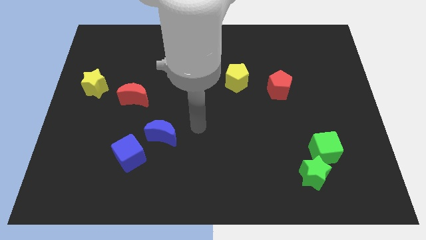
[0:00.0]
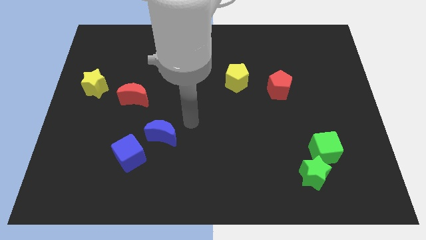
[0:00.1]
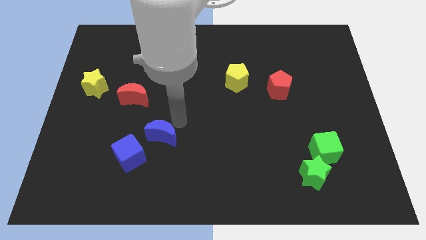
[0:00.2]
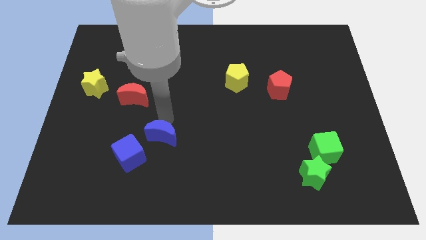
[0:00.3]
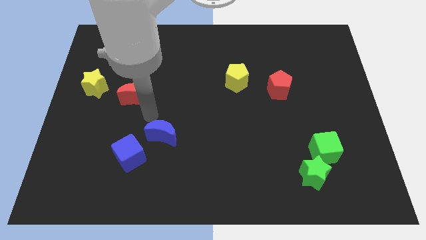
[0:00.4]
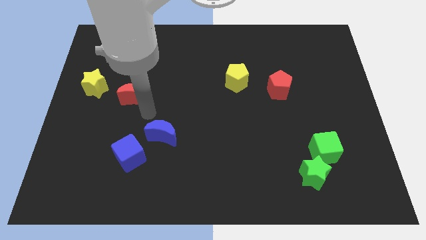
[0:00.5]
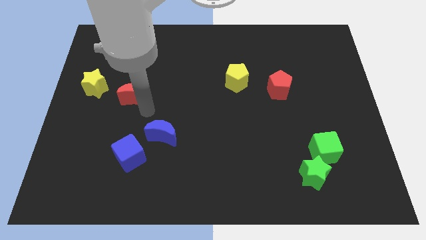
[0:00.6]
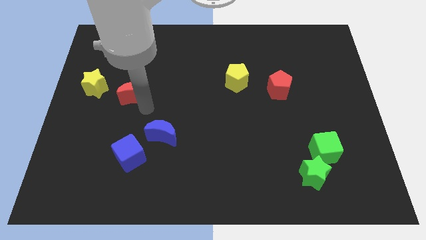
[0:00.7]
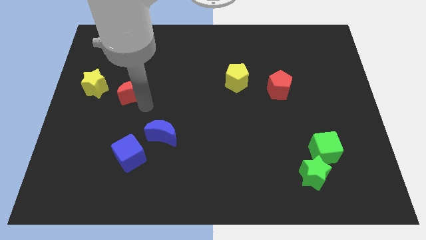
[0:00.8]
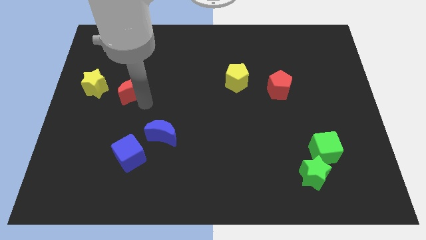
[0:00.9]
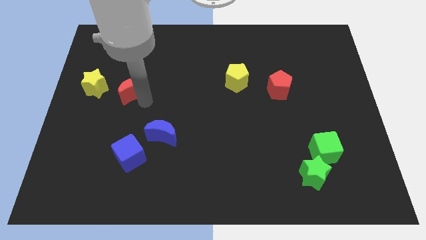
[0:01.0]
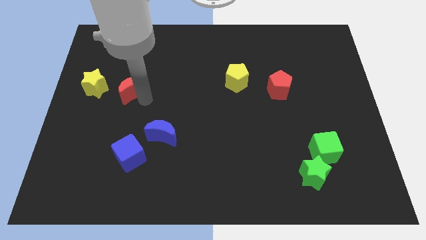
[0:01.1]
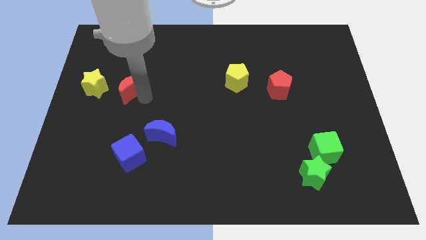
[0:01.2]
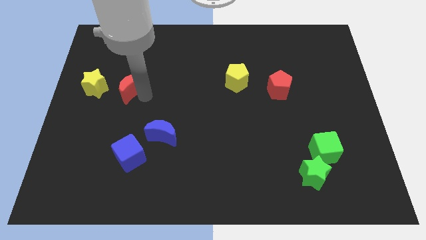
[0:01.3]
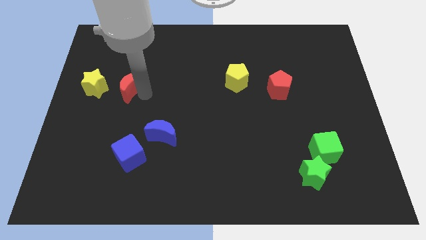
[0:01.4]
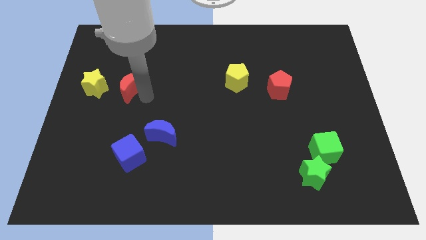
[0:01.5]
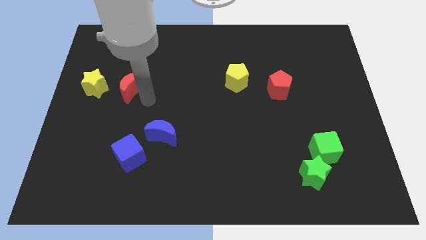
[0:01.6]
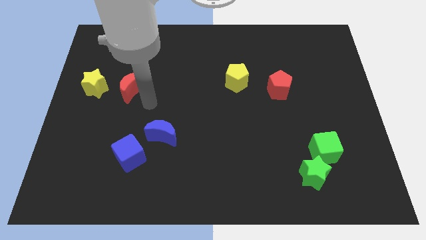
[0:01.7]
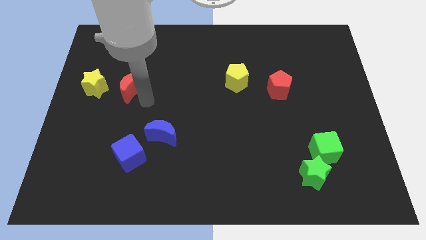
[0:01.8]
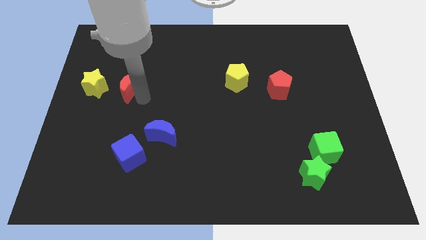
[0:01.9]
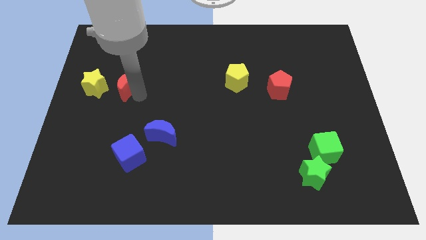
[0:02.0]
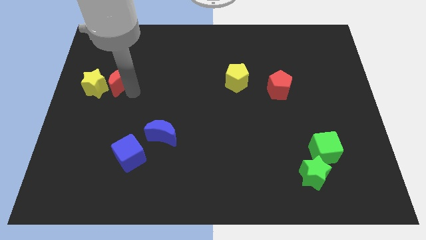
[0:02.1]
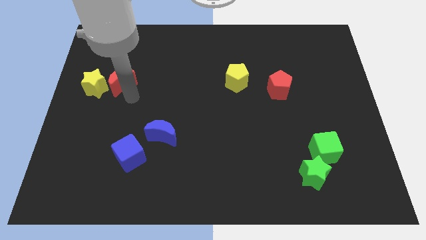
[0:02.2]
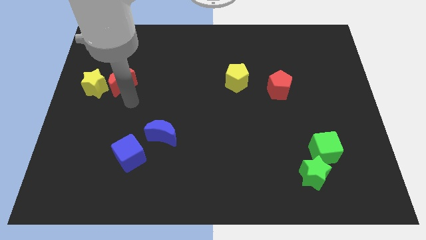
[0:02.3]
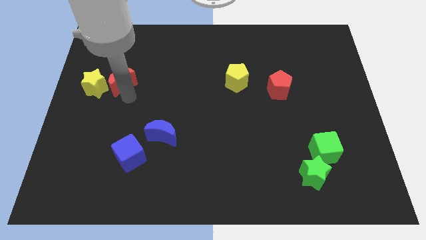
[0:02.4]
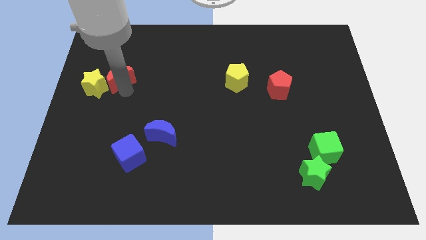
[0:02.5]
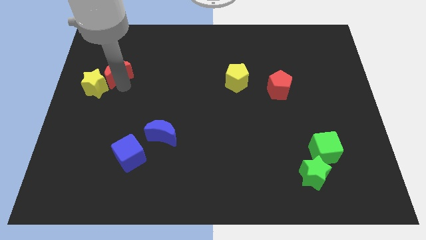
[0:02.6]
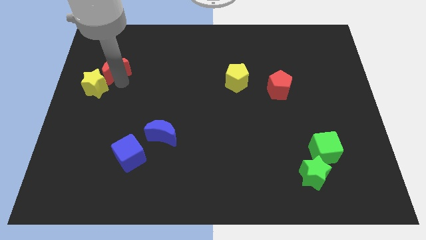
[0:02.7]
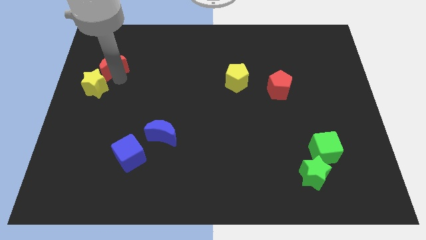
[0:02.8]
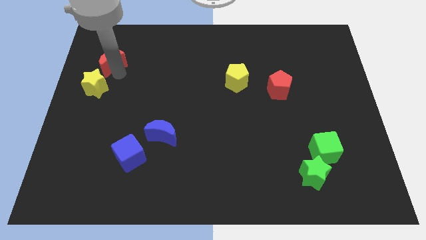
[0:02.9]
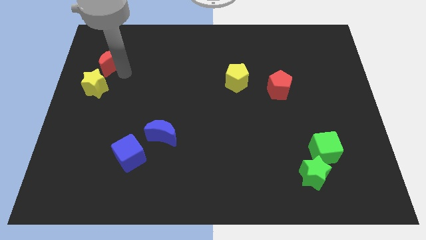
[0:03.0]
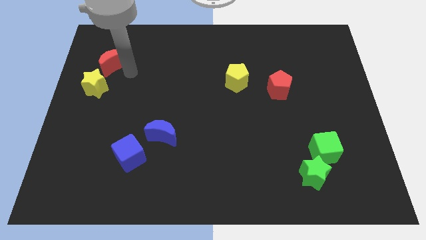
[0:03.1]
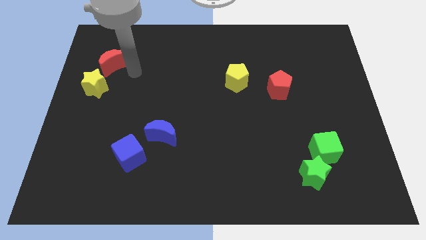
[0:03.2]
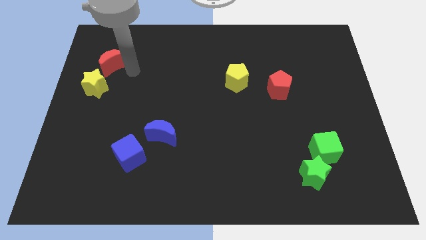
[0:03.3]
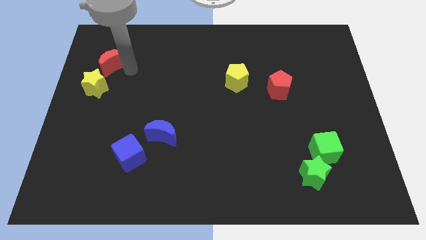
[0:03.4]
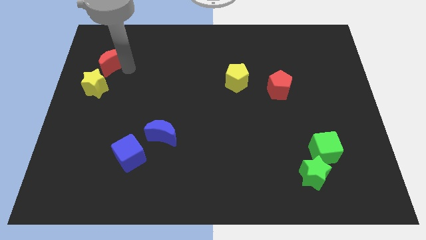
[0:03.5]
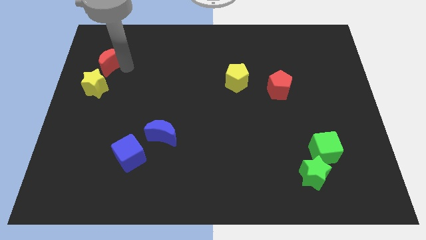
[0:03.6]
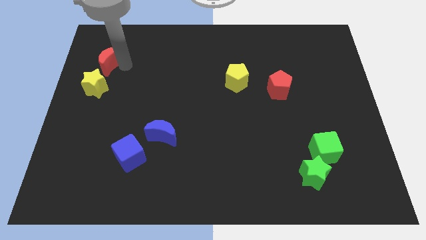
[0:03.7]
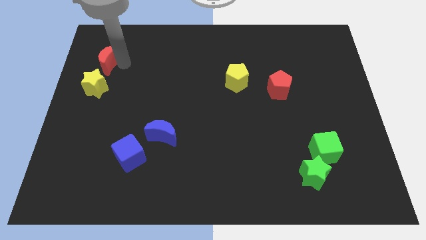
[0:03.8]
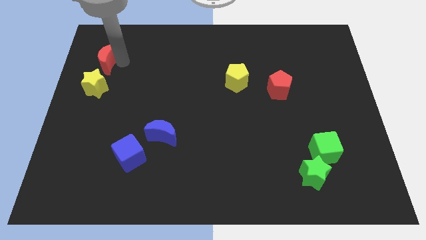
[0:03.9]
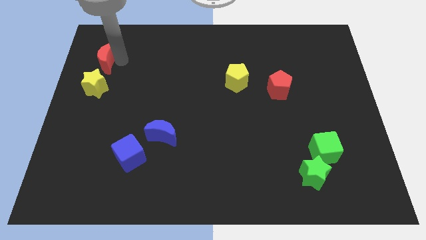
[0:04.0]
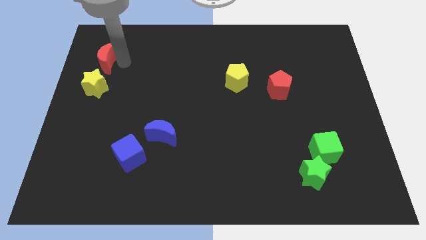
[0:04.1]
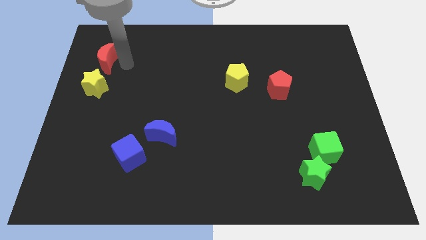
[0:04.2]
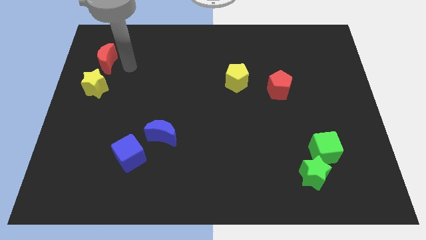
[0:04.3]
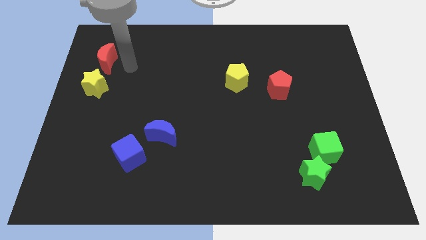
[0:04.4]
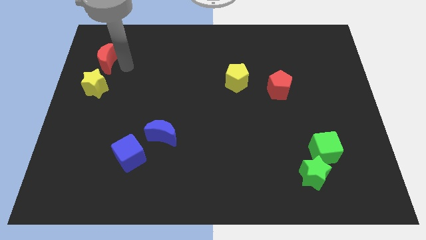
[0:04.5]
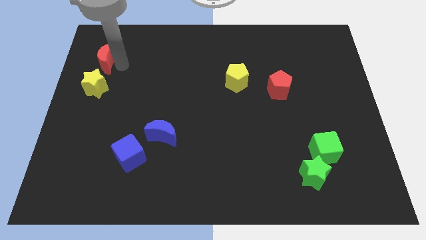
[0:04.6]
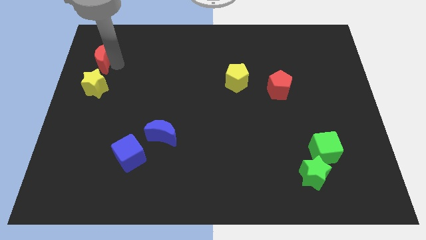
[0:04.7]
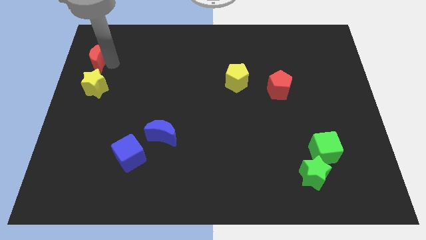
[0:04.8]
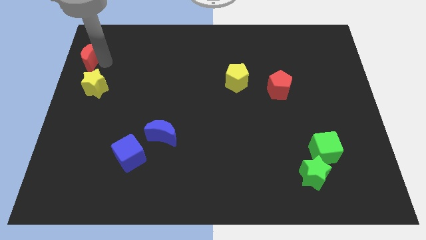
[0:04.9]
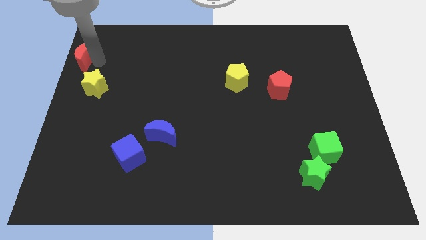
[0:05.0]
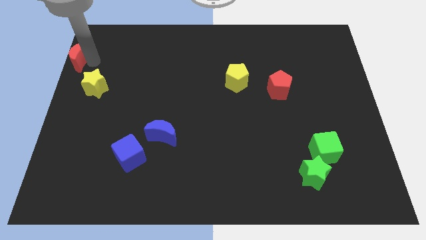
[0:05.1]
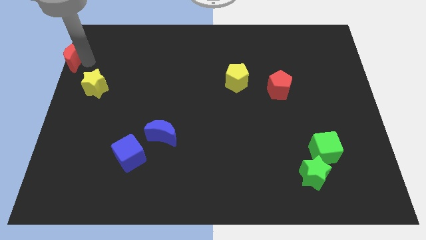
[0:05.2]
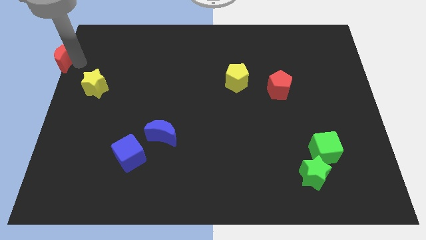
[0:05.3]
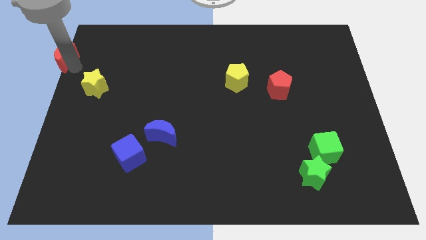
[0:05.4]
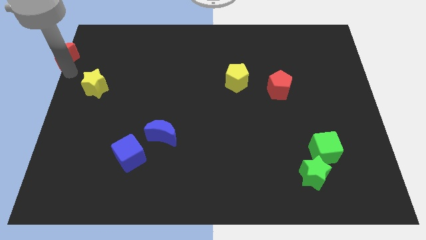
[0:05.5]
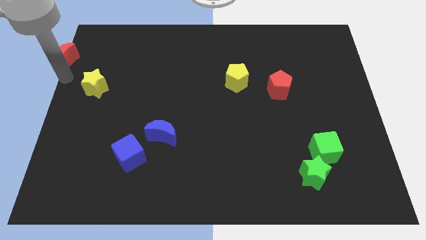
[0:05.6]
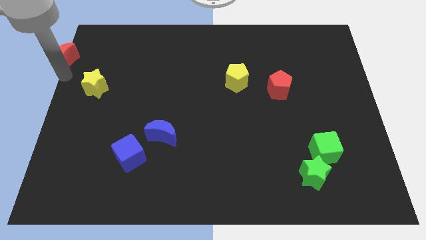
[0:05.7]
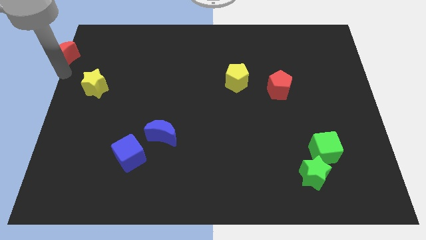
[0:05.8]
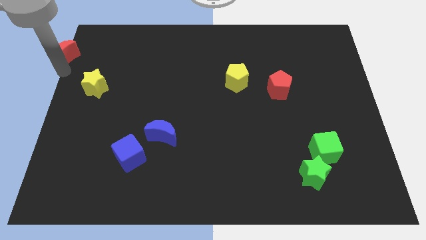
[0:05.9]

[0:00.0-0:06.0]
push the red moon to the upper left corner

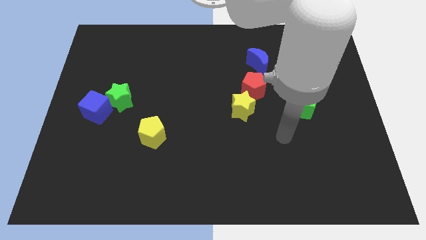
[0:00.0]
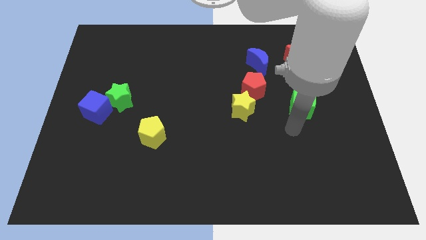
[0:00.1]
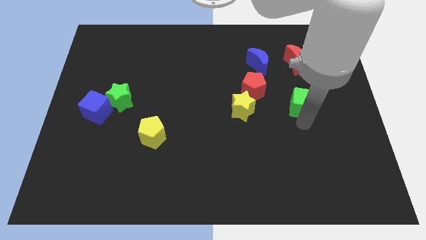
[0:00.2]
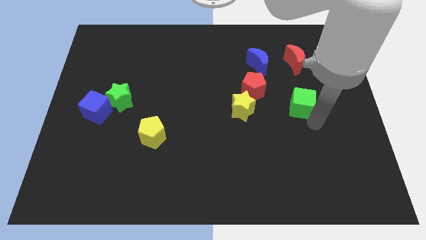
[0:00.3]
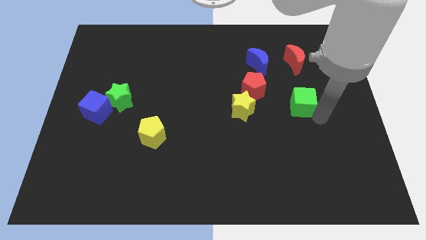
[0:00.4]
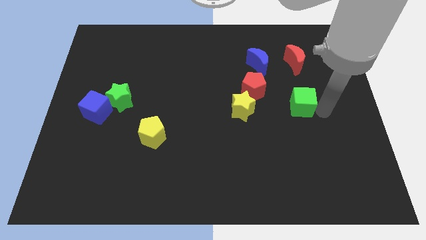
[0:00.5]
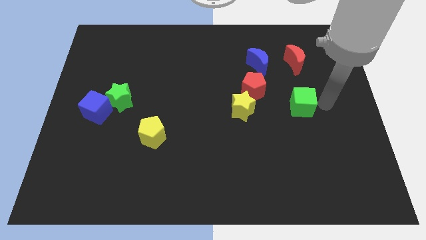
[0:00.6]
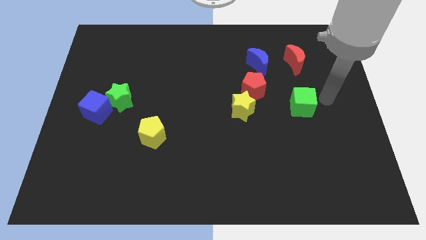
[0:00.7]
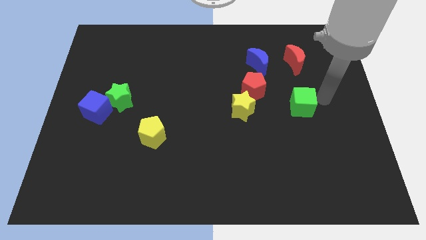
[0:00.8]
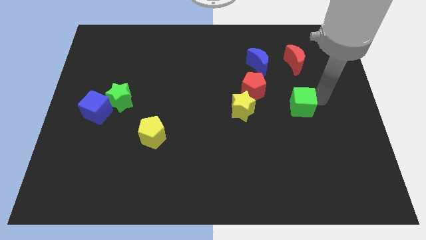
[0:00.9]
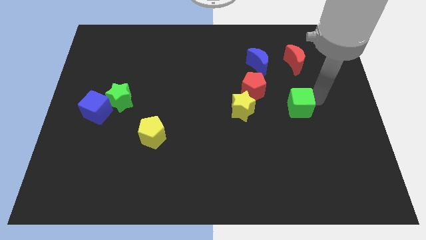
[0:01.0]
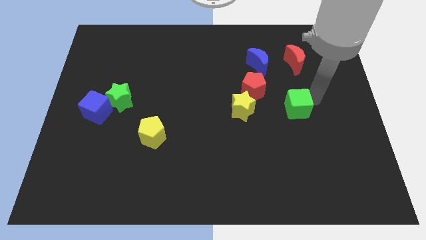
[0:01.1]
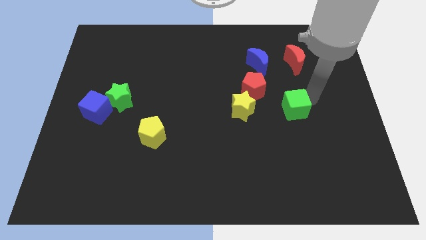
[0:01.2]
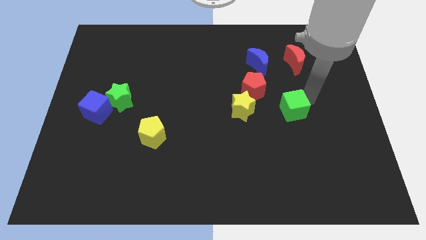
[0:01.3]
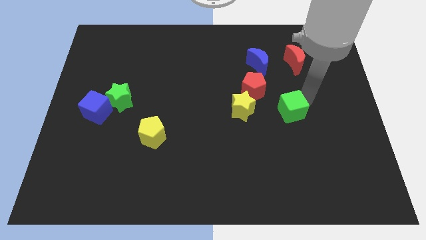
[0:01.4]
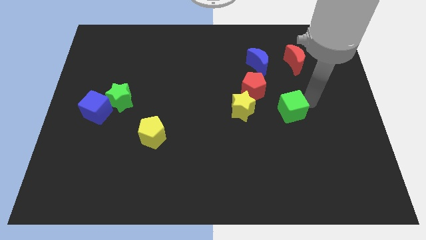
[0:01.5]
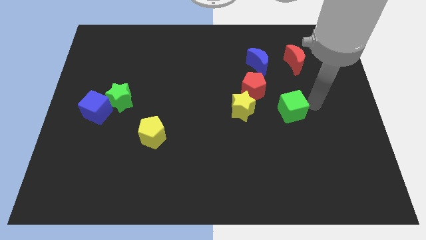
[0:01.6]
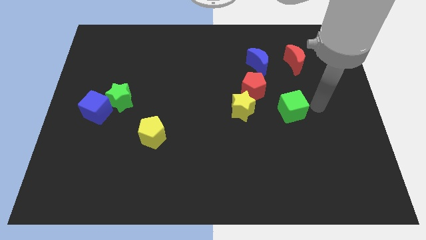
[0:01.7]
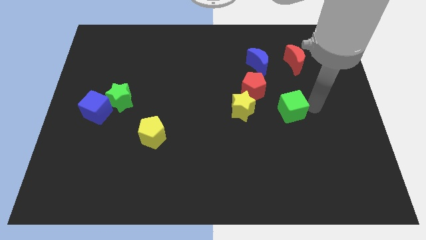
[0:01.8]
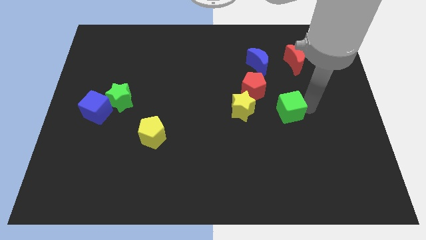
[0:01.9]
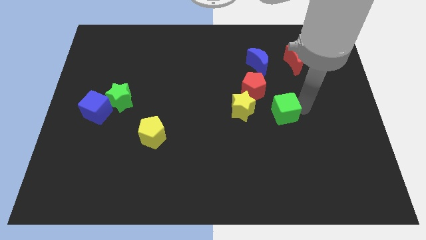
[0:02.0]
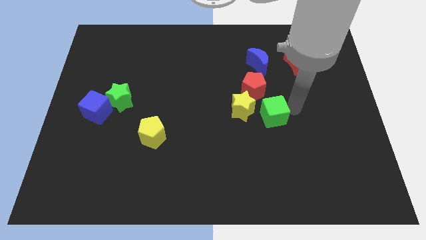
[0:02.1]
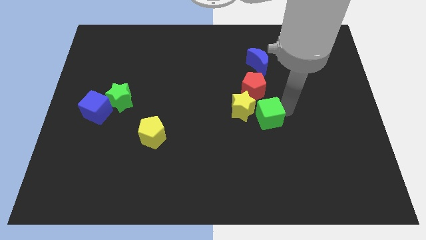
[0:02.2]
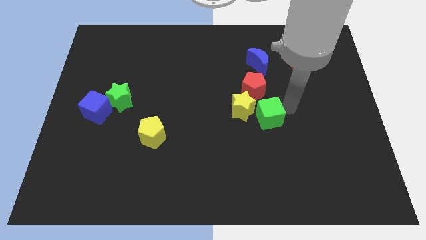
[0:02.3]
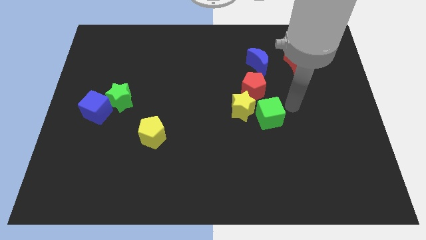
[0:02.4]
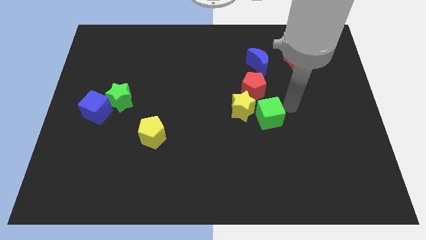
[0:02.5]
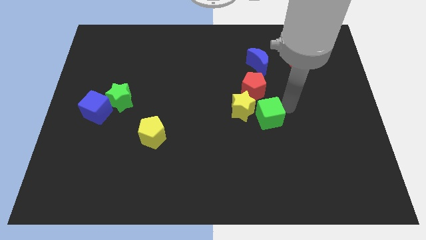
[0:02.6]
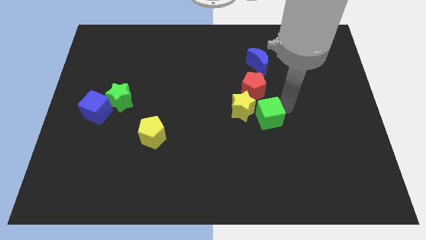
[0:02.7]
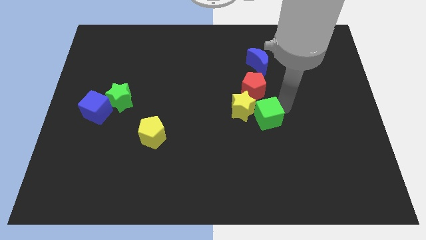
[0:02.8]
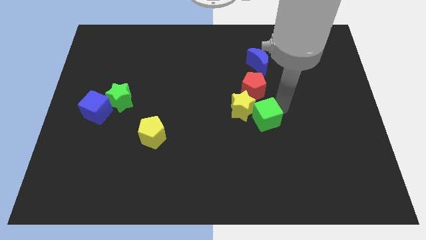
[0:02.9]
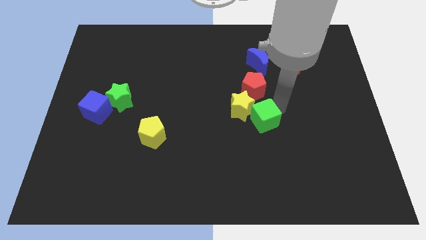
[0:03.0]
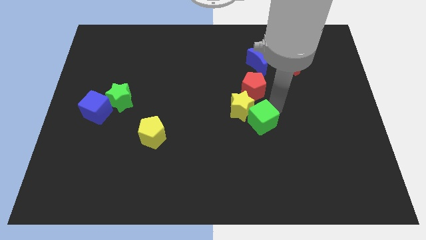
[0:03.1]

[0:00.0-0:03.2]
put the green cube to the middle
